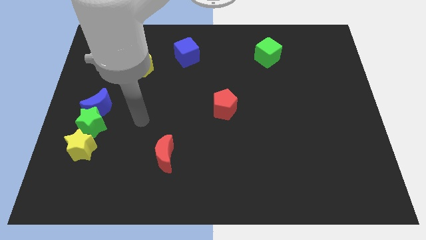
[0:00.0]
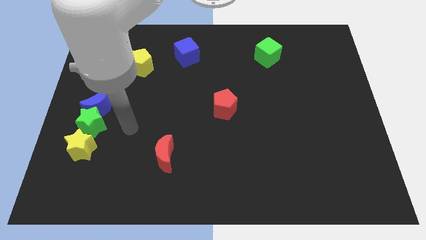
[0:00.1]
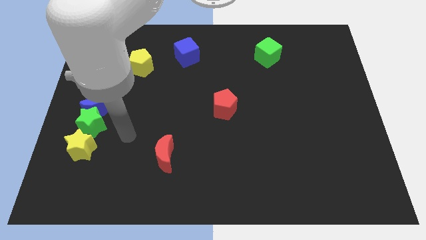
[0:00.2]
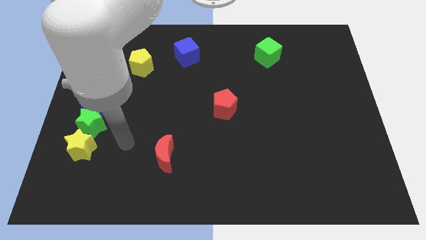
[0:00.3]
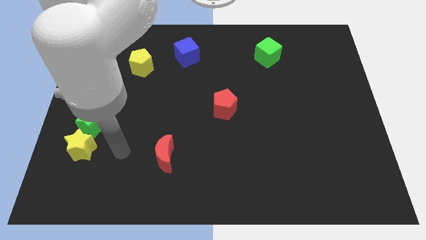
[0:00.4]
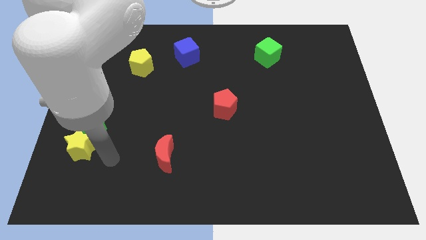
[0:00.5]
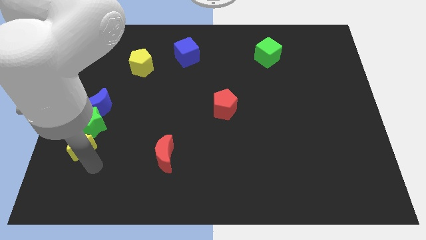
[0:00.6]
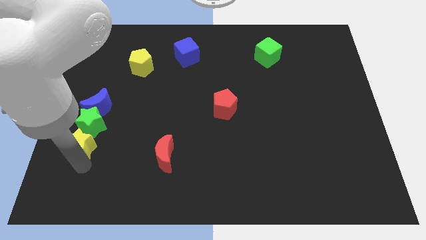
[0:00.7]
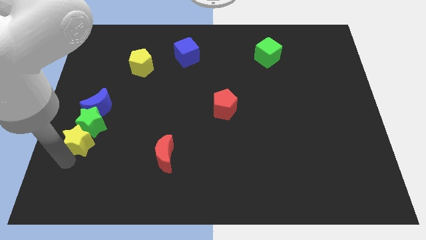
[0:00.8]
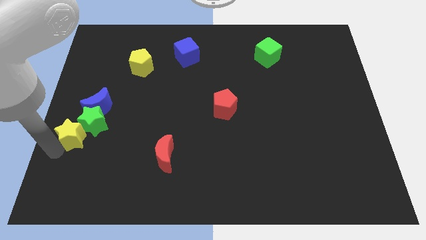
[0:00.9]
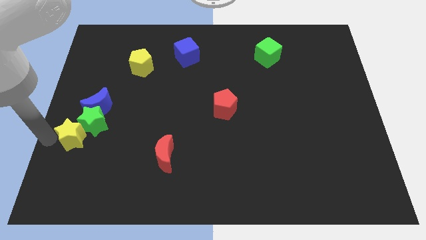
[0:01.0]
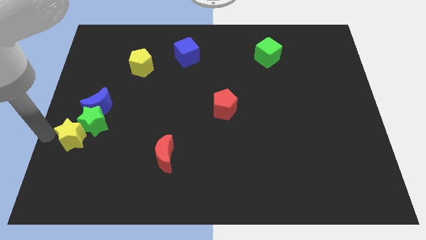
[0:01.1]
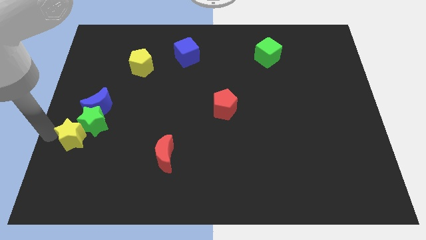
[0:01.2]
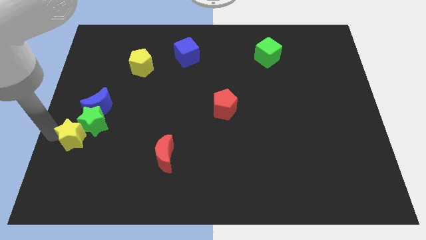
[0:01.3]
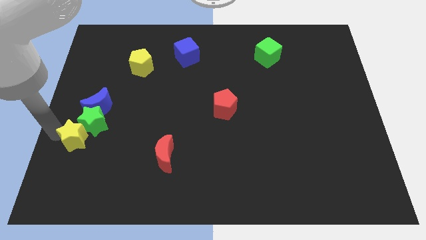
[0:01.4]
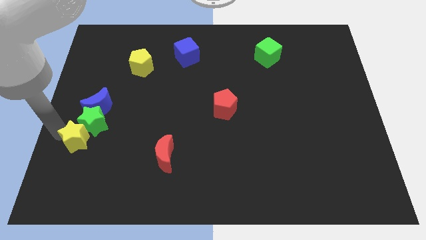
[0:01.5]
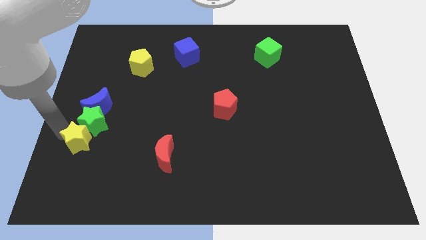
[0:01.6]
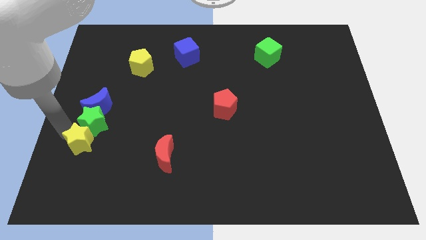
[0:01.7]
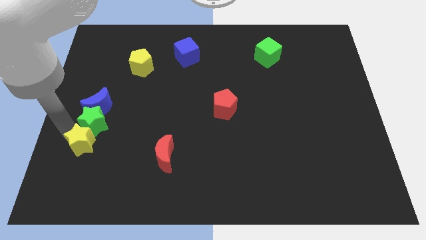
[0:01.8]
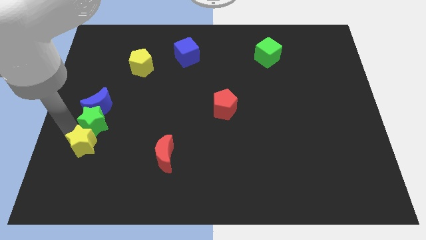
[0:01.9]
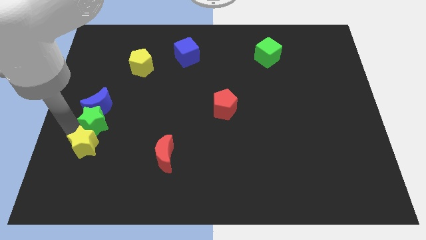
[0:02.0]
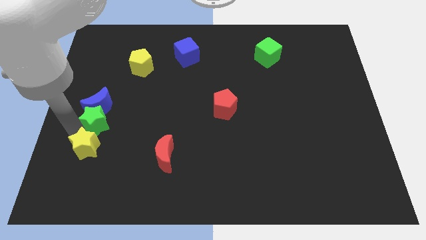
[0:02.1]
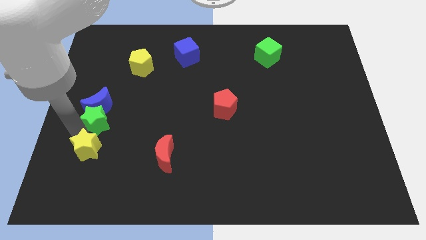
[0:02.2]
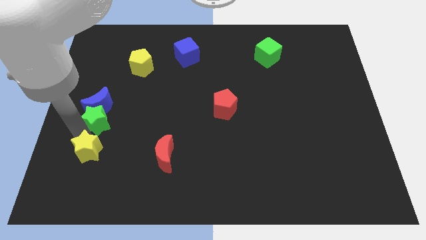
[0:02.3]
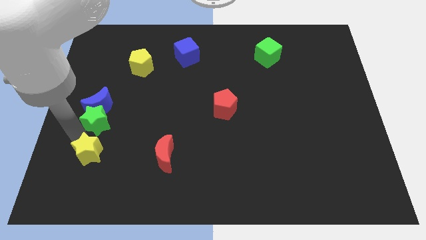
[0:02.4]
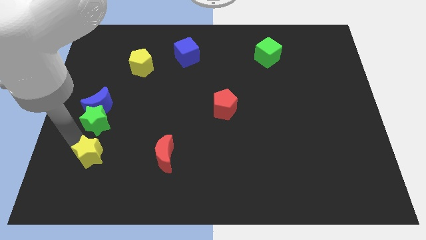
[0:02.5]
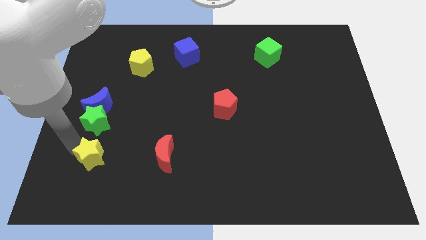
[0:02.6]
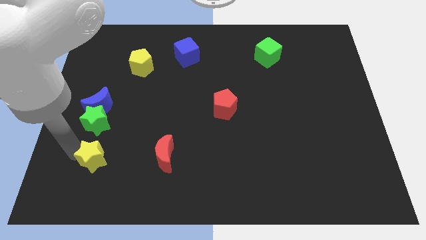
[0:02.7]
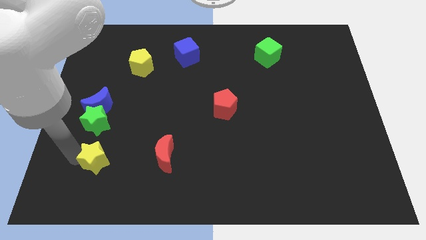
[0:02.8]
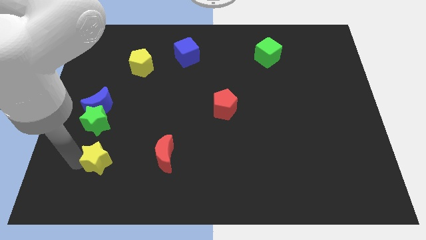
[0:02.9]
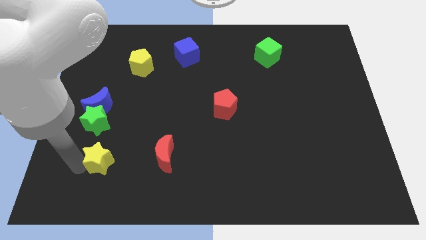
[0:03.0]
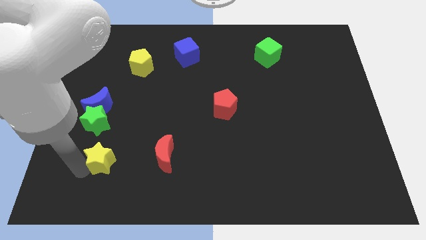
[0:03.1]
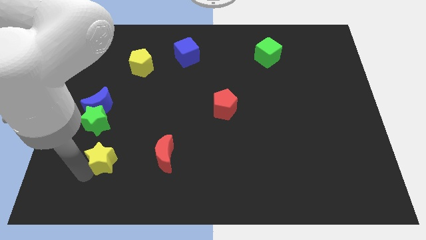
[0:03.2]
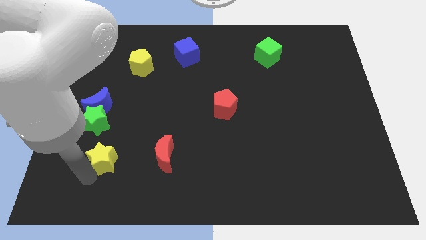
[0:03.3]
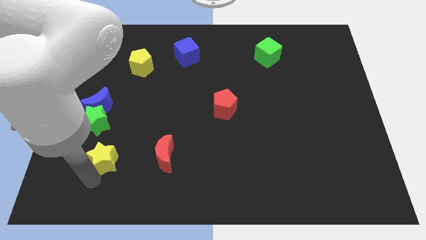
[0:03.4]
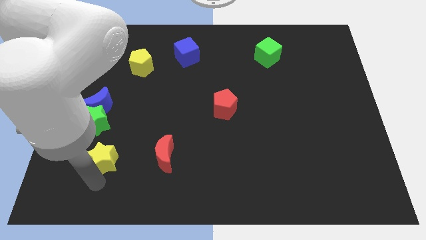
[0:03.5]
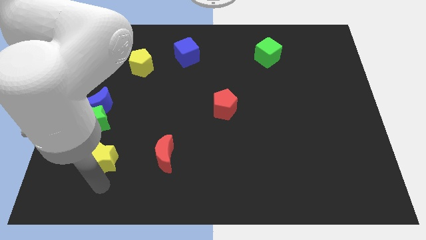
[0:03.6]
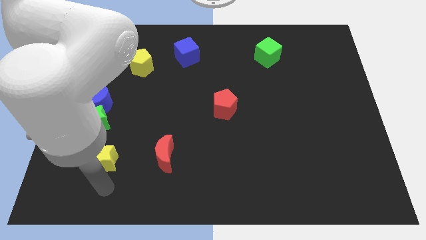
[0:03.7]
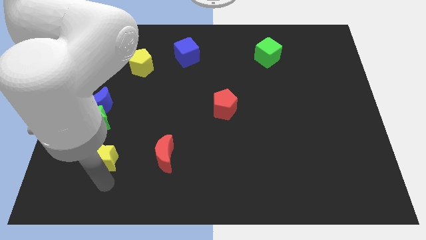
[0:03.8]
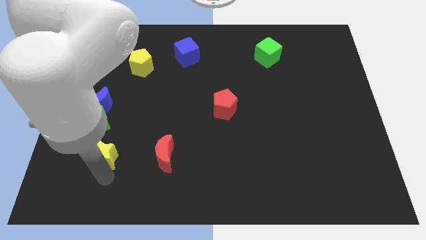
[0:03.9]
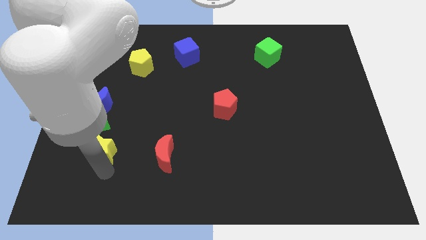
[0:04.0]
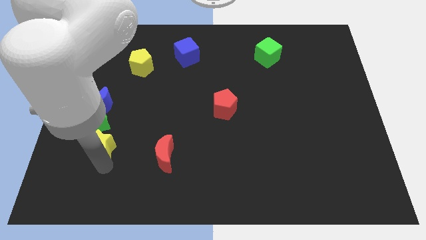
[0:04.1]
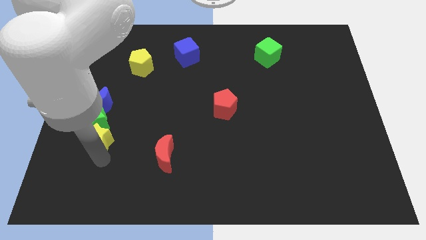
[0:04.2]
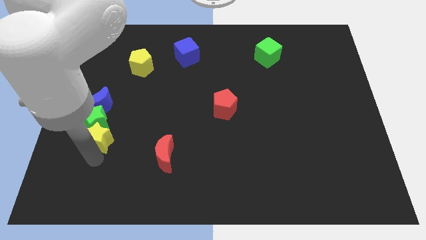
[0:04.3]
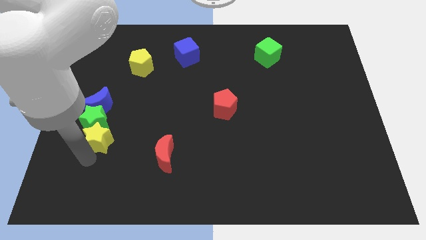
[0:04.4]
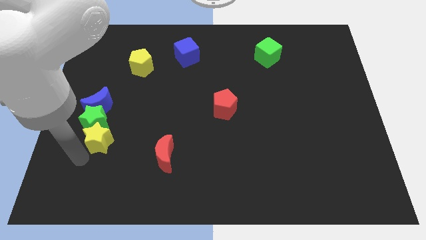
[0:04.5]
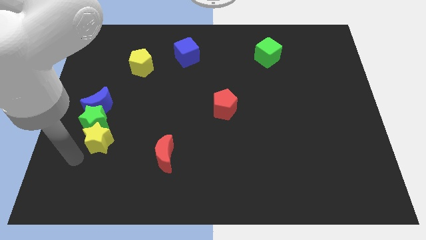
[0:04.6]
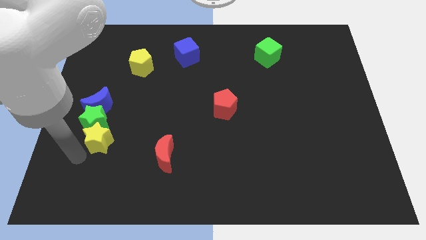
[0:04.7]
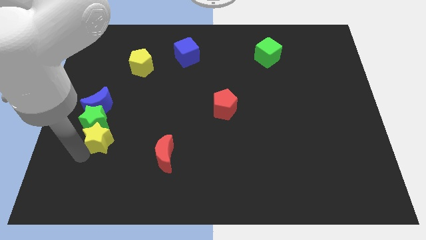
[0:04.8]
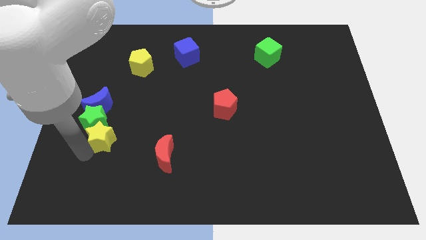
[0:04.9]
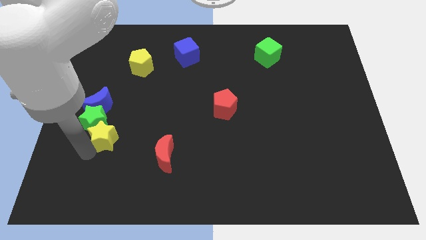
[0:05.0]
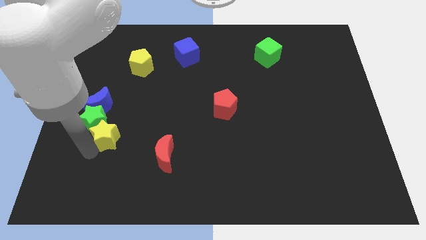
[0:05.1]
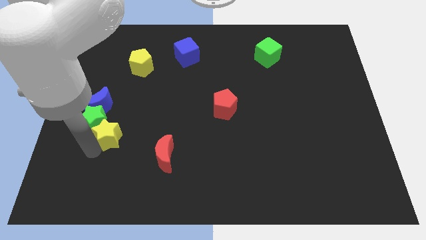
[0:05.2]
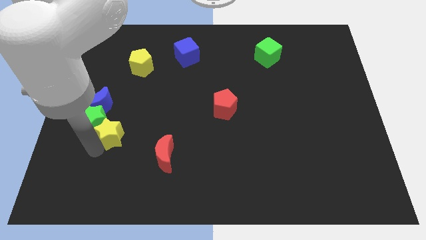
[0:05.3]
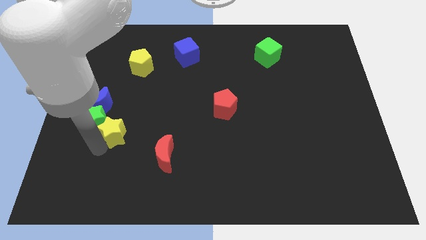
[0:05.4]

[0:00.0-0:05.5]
move the yellow star diagonally up and right a little

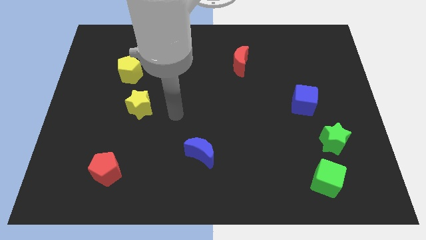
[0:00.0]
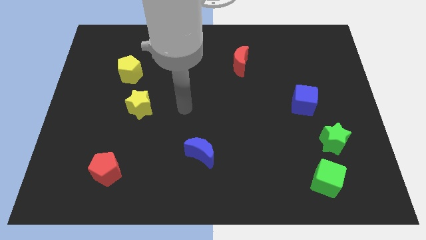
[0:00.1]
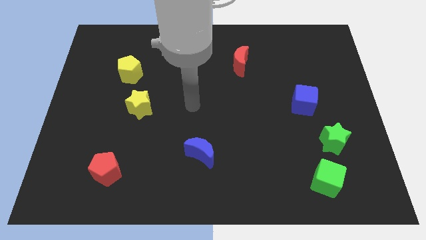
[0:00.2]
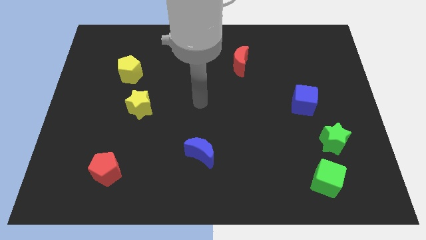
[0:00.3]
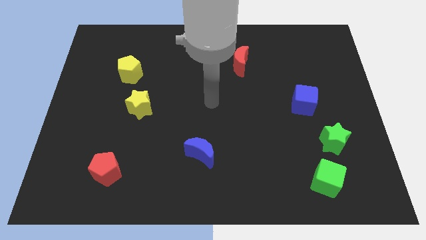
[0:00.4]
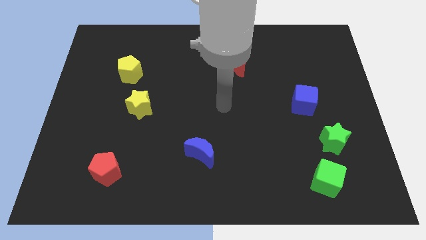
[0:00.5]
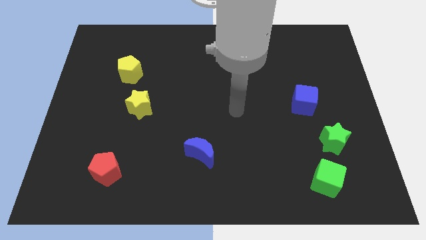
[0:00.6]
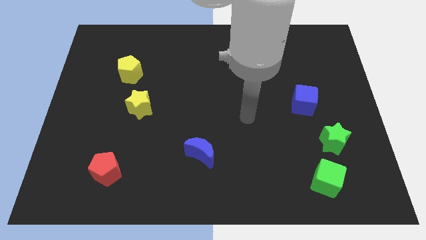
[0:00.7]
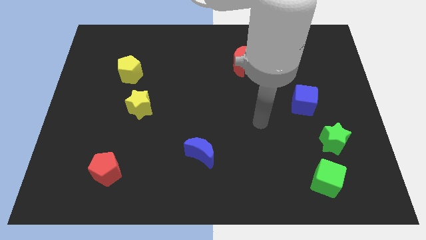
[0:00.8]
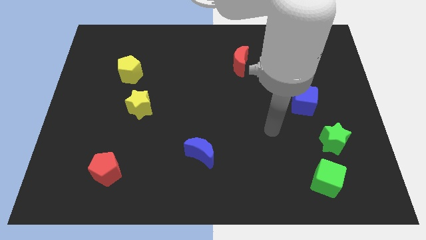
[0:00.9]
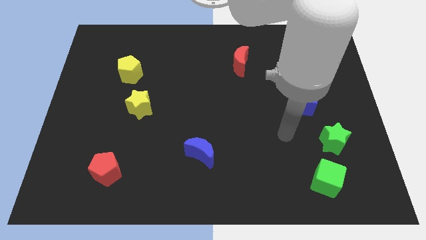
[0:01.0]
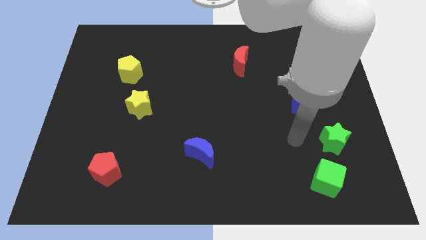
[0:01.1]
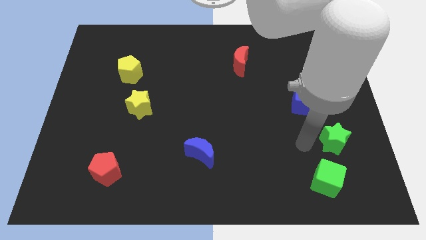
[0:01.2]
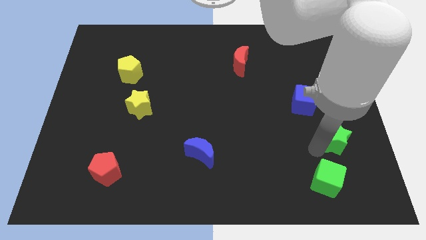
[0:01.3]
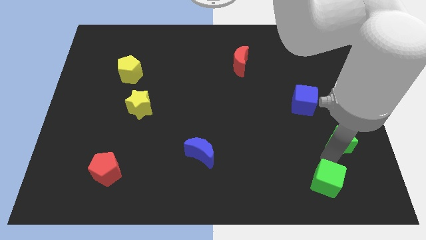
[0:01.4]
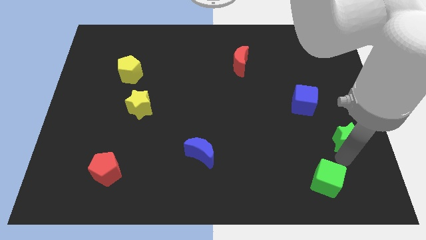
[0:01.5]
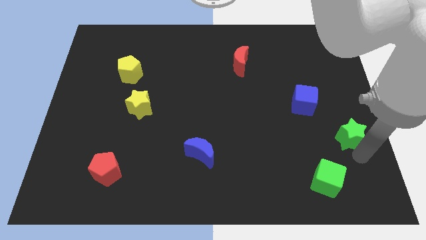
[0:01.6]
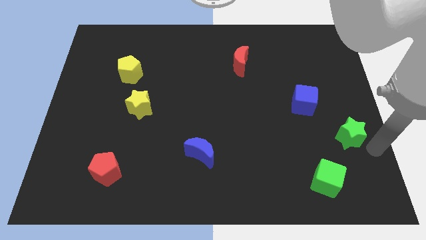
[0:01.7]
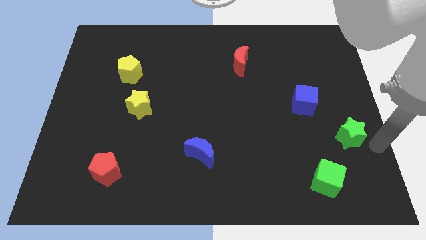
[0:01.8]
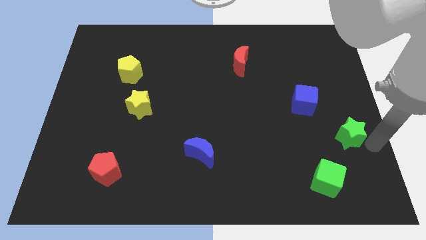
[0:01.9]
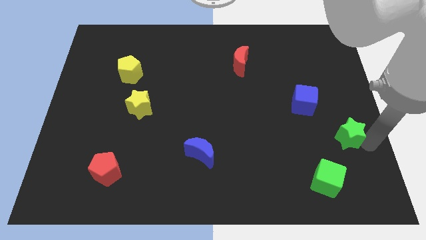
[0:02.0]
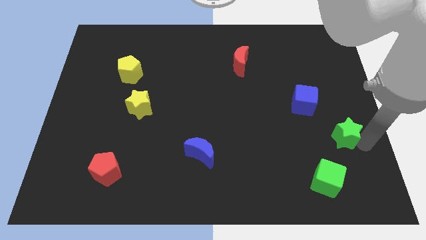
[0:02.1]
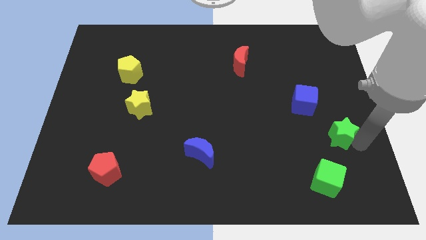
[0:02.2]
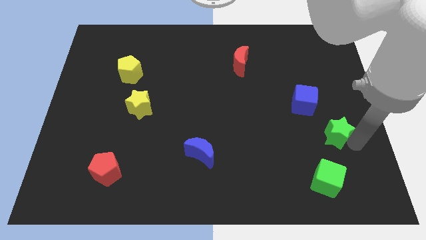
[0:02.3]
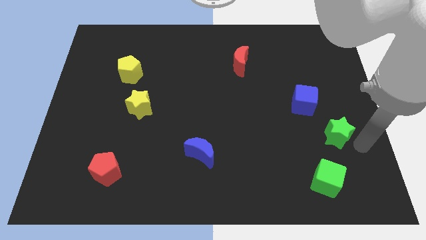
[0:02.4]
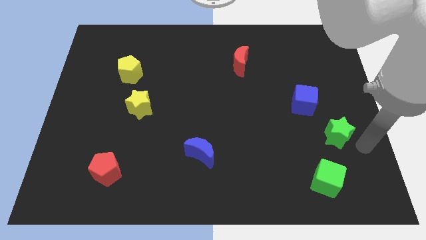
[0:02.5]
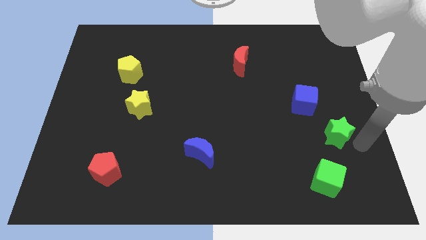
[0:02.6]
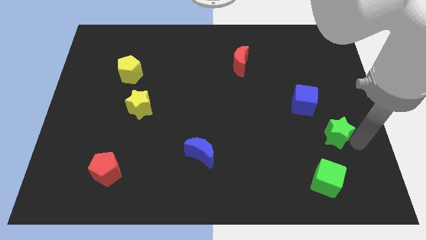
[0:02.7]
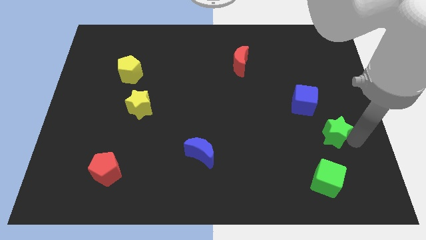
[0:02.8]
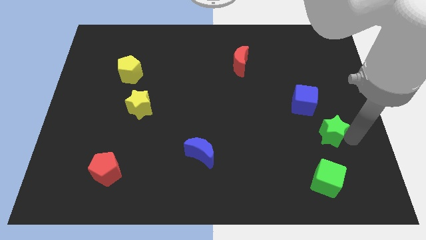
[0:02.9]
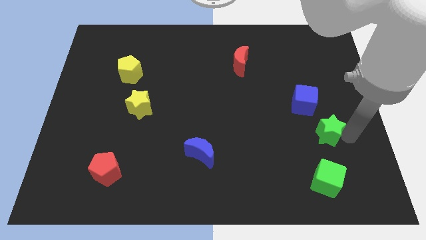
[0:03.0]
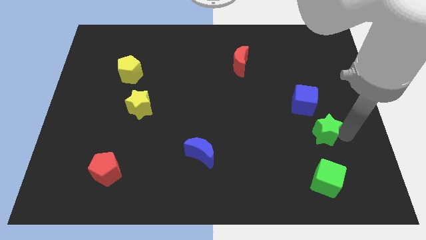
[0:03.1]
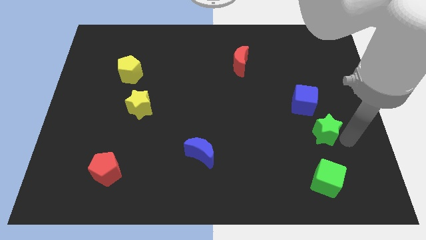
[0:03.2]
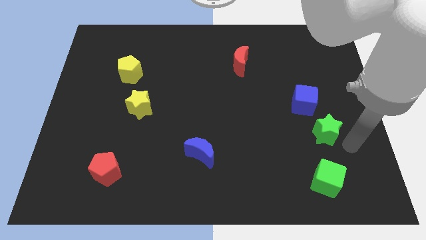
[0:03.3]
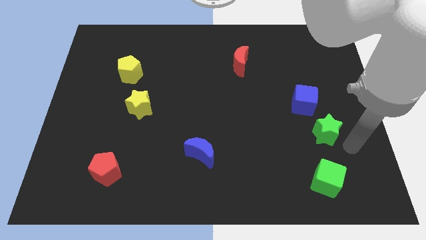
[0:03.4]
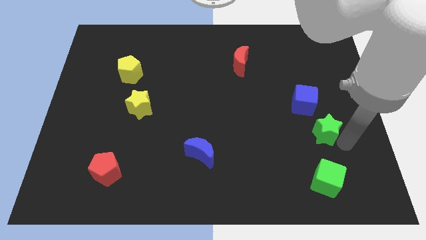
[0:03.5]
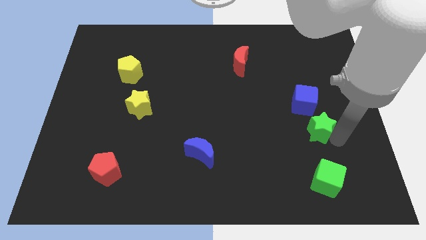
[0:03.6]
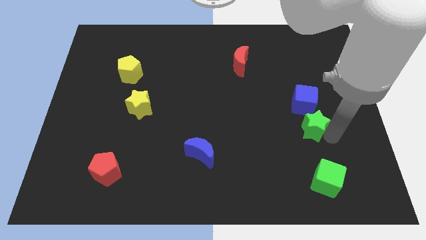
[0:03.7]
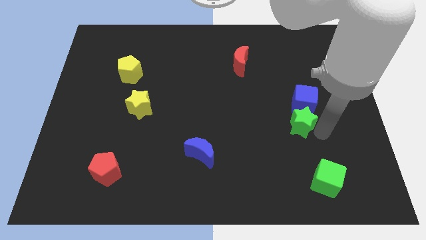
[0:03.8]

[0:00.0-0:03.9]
push the green star up and to the left somewhat
